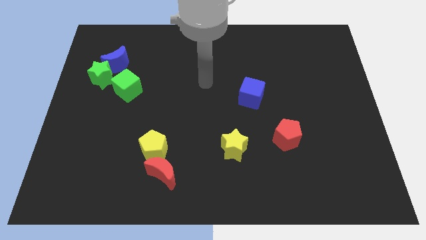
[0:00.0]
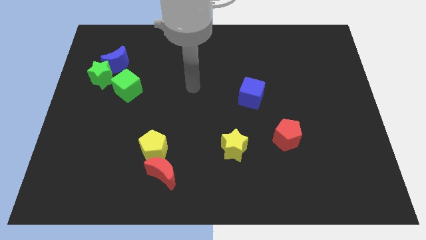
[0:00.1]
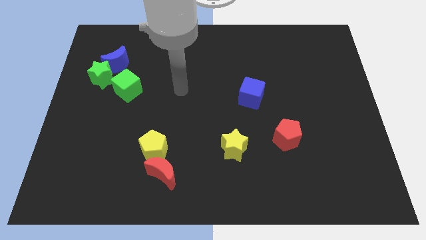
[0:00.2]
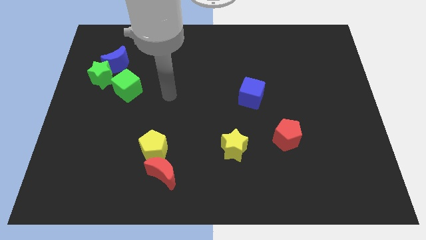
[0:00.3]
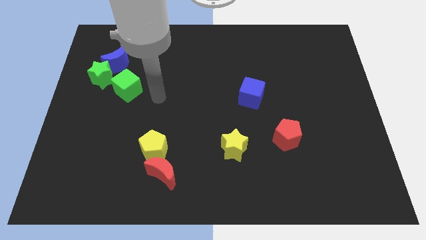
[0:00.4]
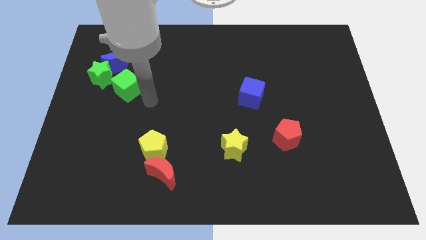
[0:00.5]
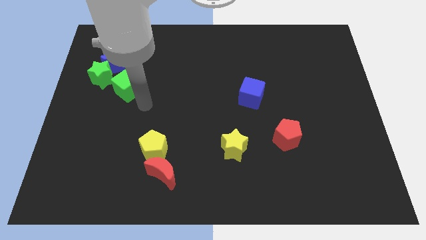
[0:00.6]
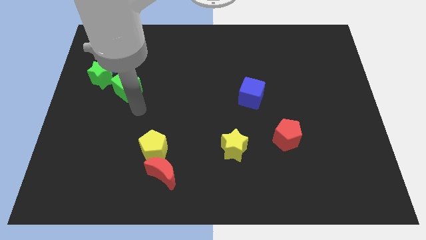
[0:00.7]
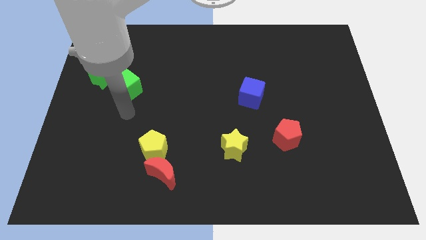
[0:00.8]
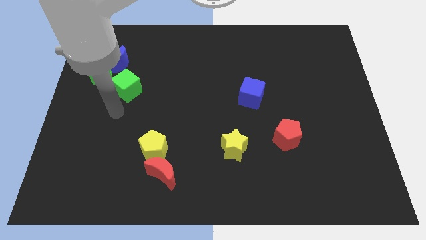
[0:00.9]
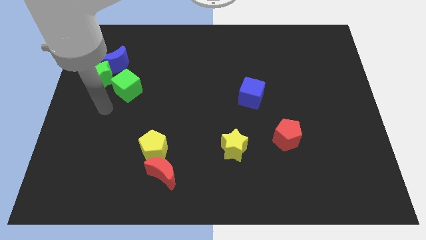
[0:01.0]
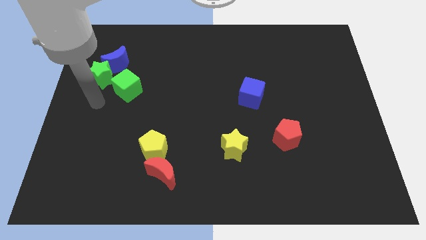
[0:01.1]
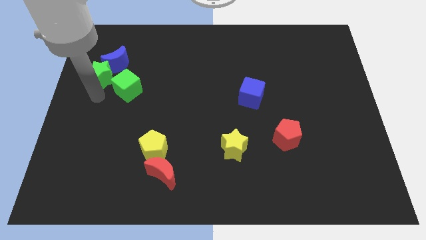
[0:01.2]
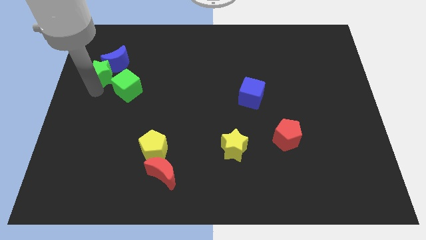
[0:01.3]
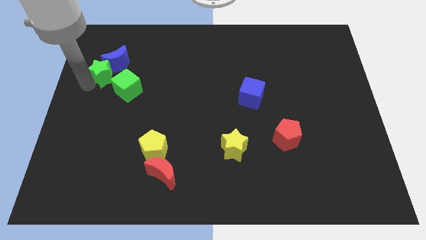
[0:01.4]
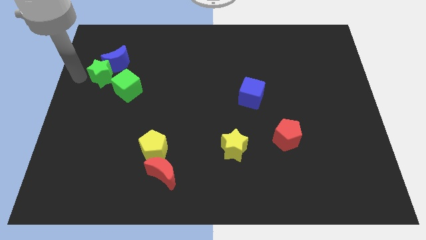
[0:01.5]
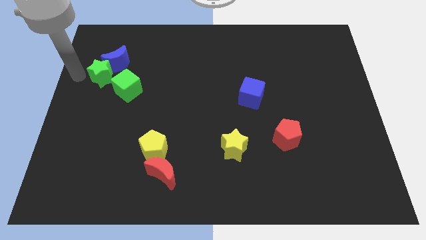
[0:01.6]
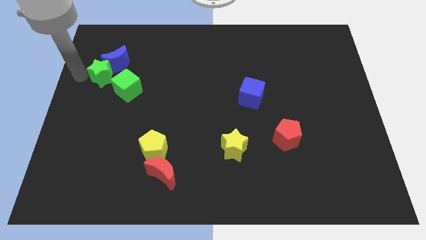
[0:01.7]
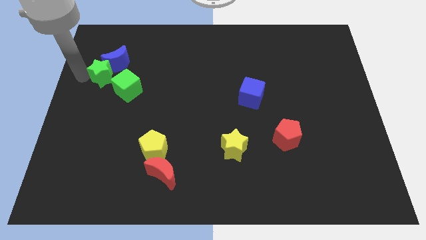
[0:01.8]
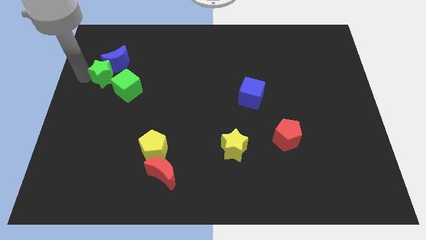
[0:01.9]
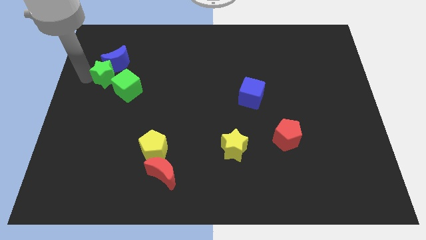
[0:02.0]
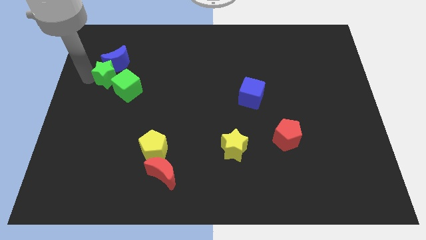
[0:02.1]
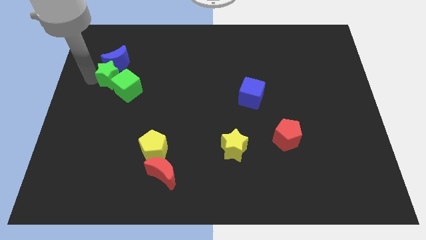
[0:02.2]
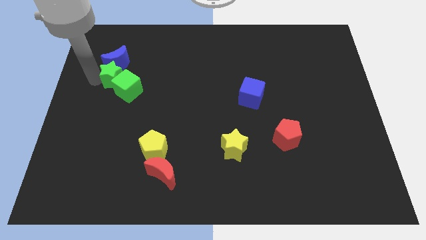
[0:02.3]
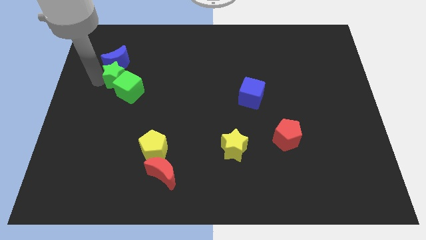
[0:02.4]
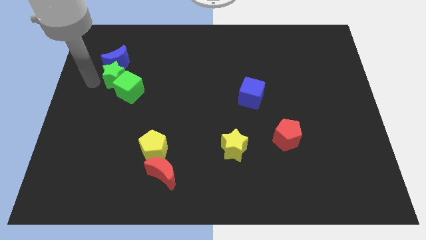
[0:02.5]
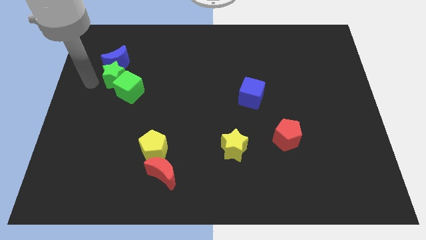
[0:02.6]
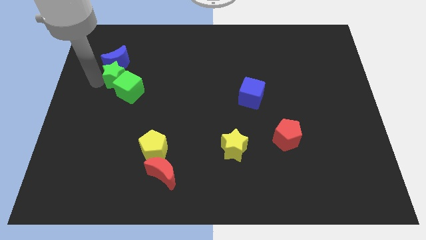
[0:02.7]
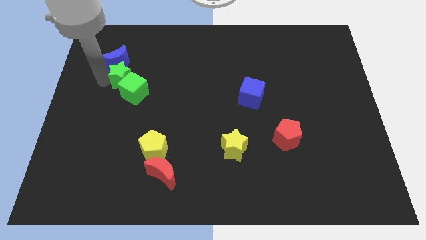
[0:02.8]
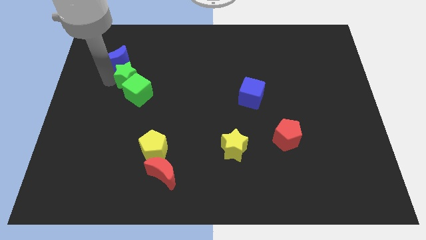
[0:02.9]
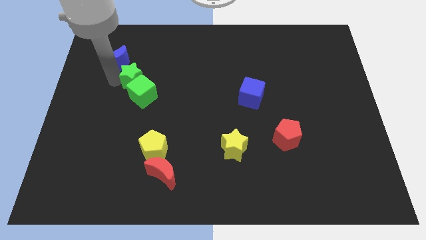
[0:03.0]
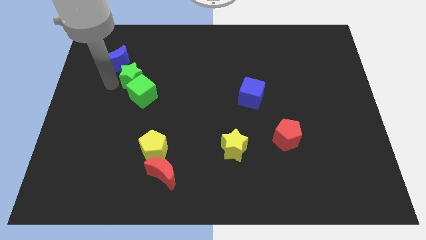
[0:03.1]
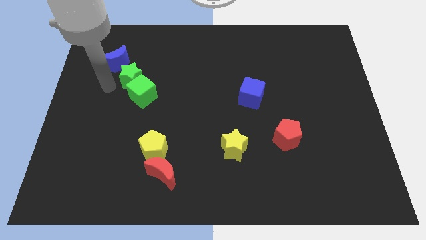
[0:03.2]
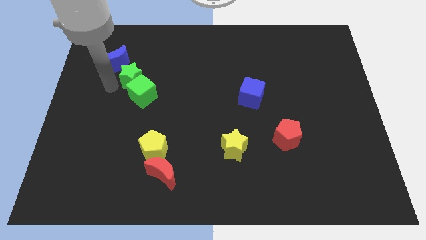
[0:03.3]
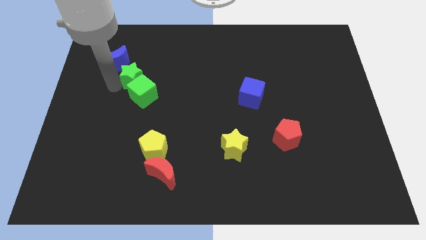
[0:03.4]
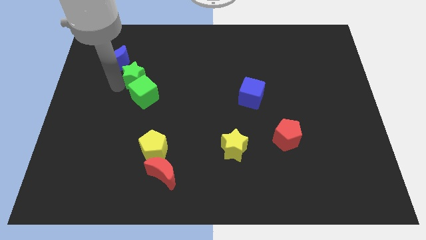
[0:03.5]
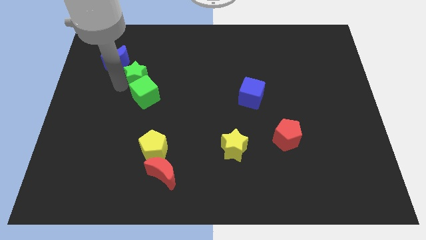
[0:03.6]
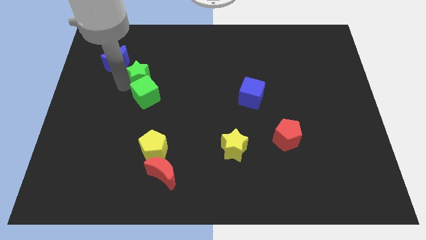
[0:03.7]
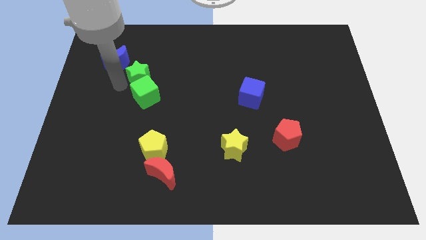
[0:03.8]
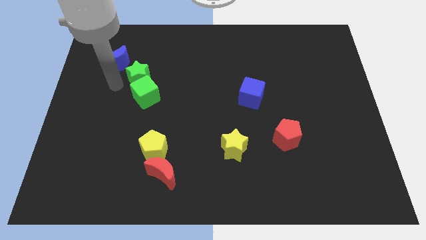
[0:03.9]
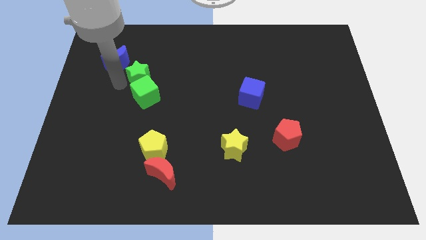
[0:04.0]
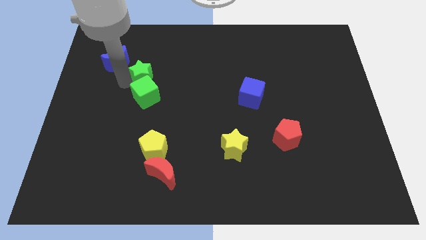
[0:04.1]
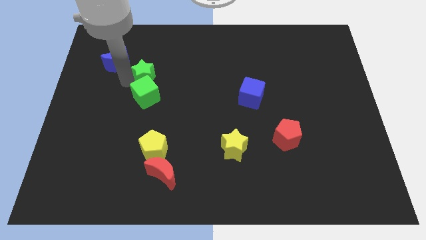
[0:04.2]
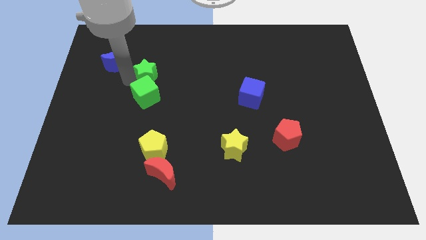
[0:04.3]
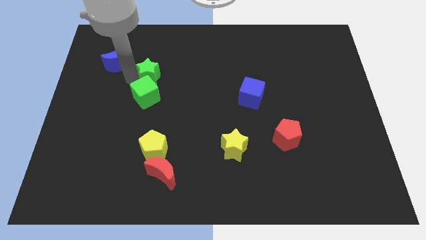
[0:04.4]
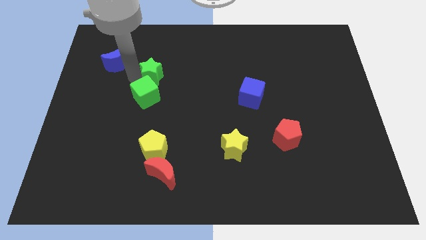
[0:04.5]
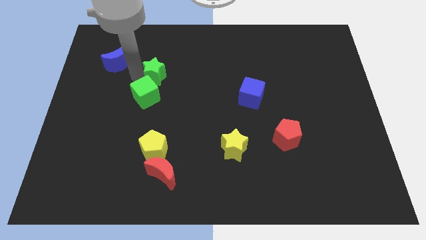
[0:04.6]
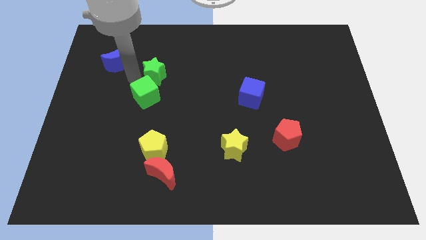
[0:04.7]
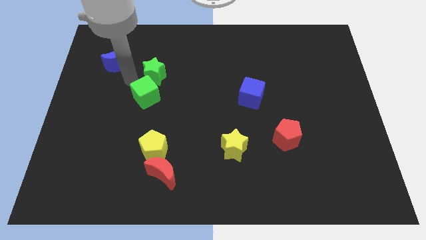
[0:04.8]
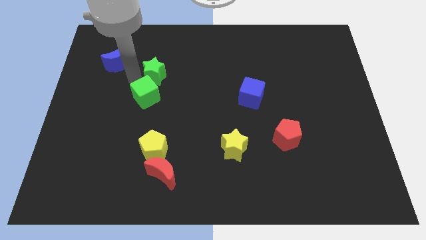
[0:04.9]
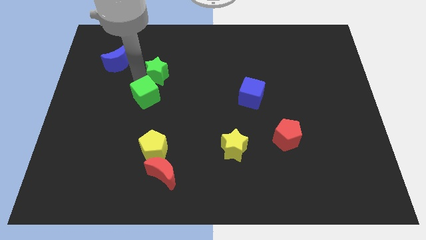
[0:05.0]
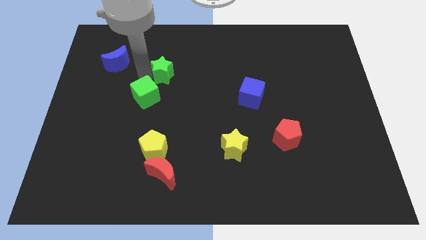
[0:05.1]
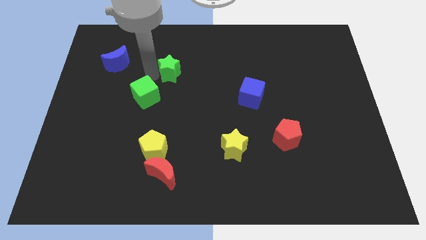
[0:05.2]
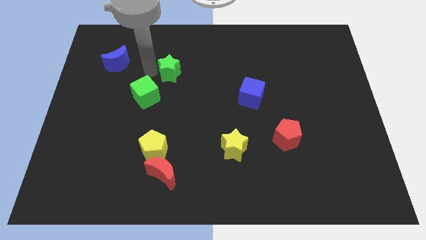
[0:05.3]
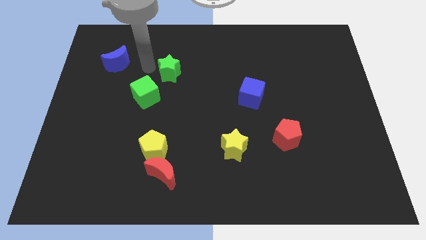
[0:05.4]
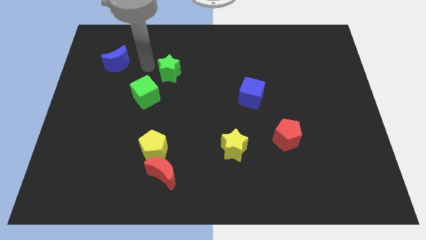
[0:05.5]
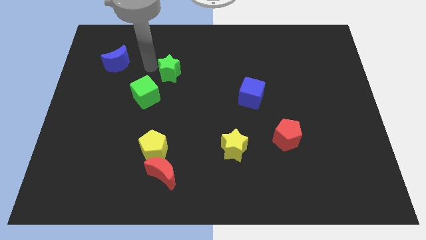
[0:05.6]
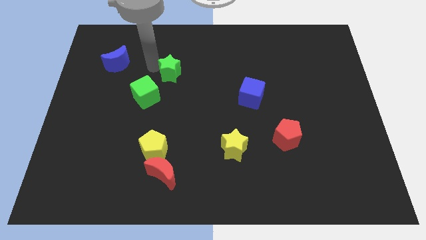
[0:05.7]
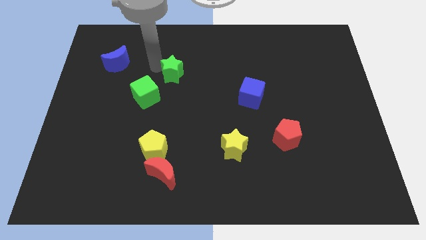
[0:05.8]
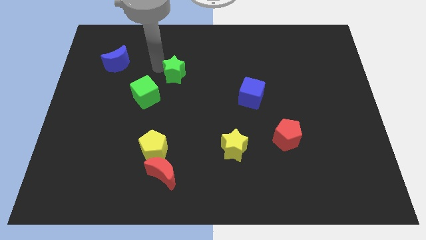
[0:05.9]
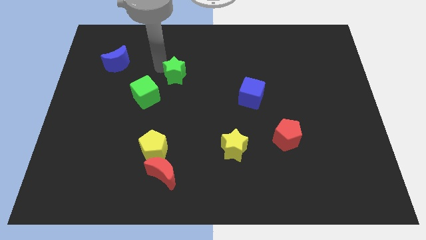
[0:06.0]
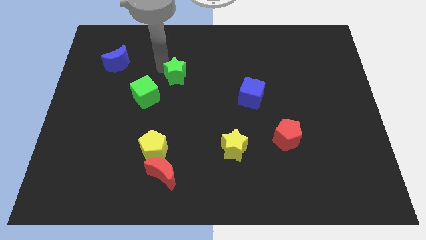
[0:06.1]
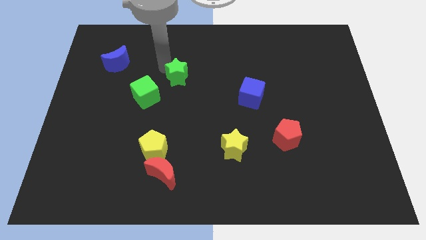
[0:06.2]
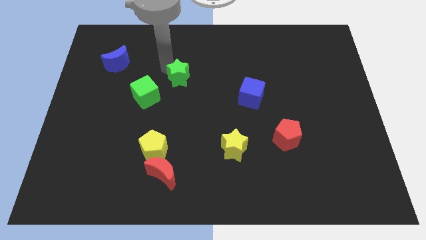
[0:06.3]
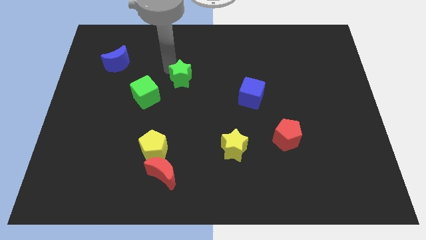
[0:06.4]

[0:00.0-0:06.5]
slide the green star to the right

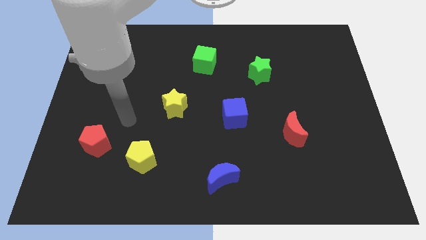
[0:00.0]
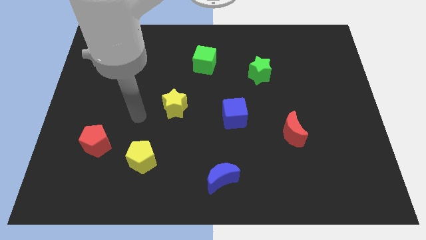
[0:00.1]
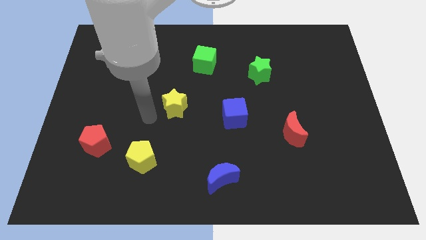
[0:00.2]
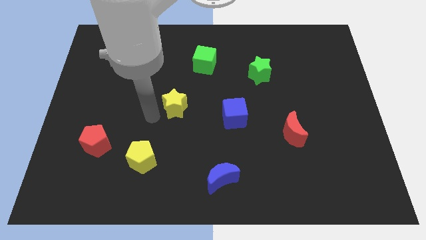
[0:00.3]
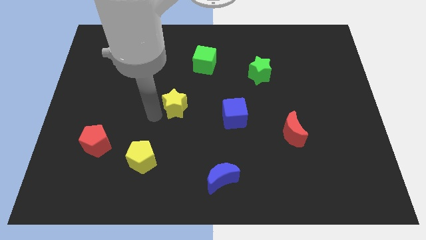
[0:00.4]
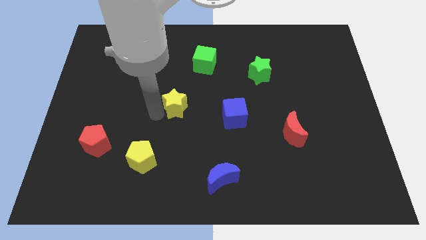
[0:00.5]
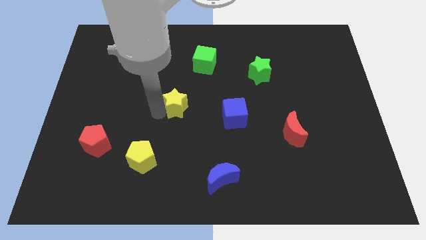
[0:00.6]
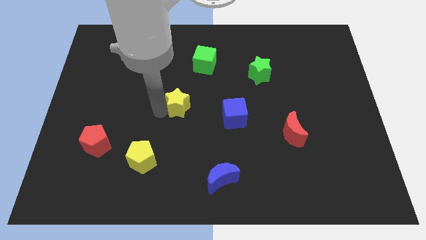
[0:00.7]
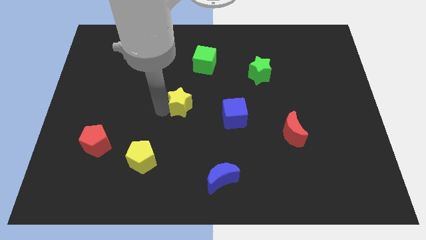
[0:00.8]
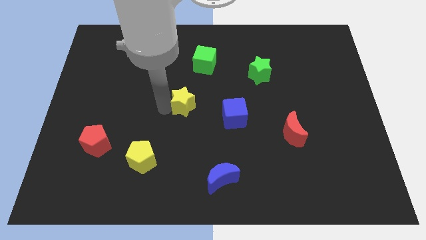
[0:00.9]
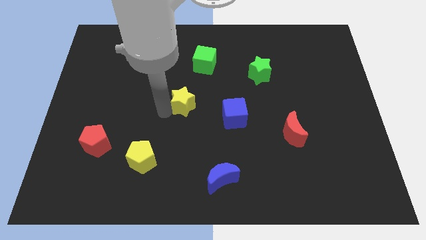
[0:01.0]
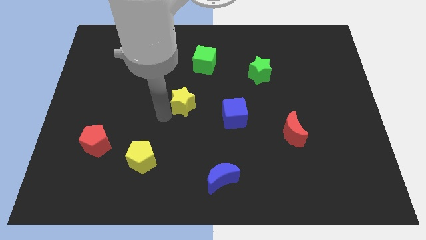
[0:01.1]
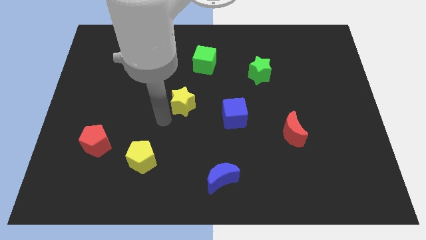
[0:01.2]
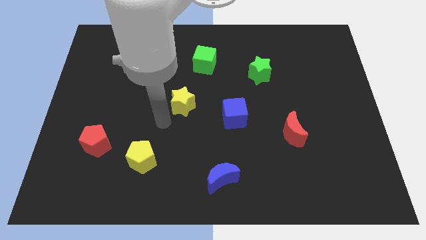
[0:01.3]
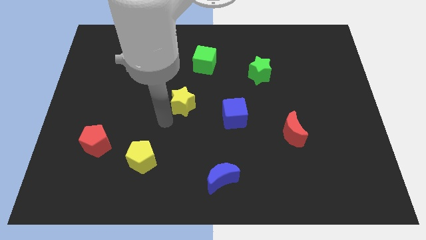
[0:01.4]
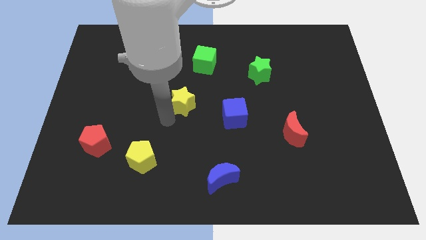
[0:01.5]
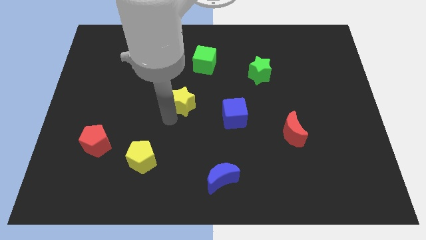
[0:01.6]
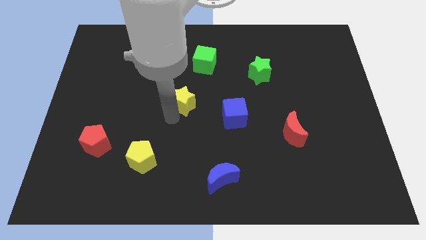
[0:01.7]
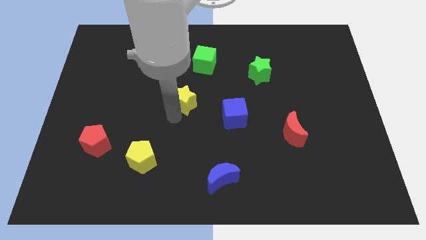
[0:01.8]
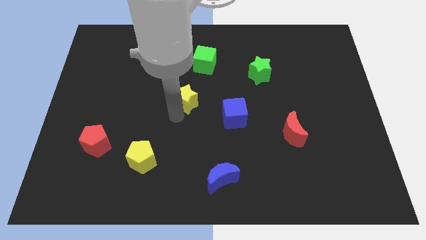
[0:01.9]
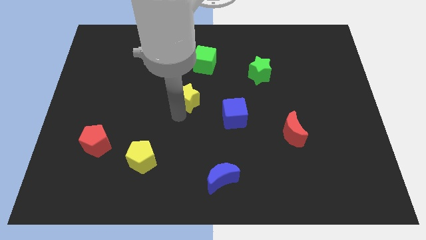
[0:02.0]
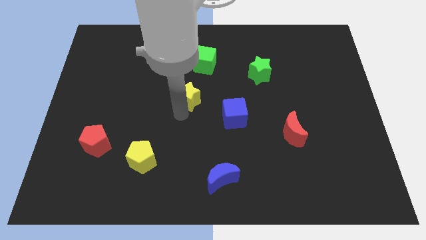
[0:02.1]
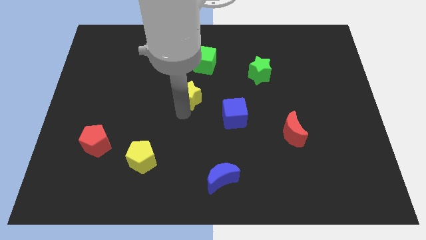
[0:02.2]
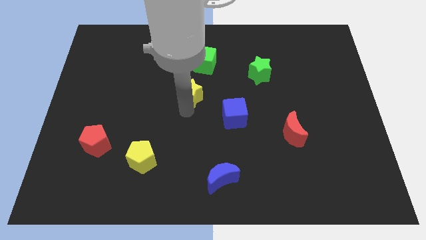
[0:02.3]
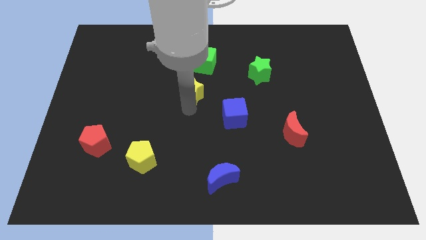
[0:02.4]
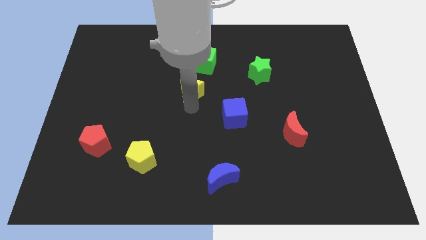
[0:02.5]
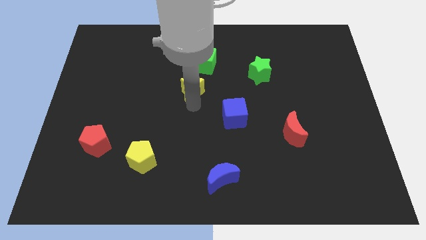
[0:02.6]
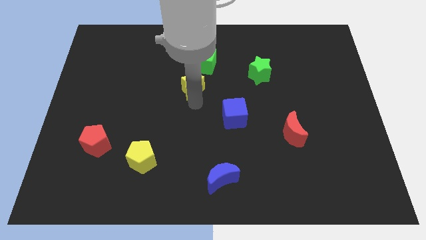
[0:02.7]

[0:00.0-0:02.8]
move the yellow star a little upwards and then to the right
